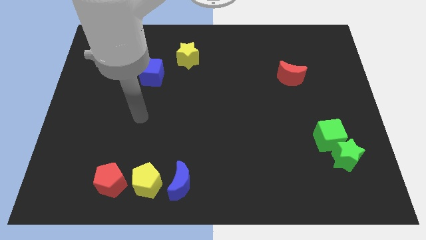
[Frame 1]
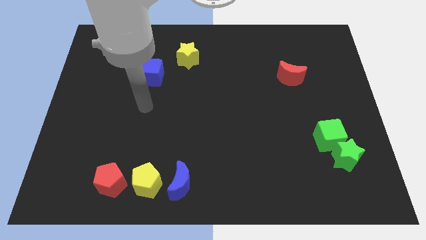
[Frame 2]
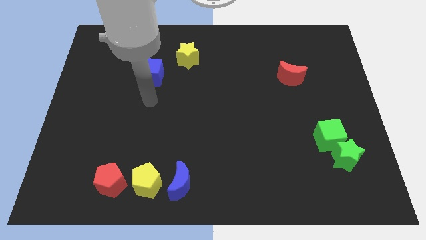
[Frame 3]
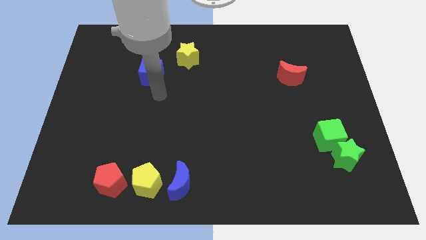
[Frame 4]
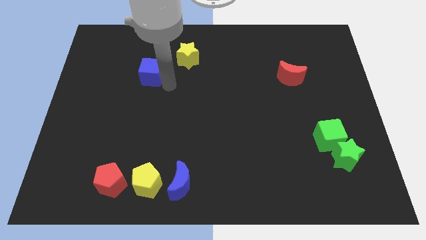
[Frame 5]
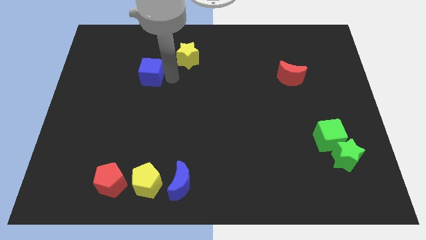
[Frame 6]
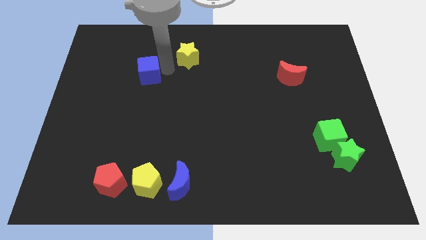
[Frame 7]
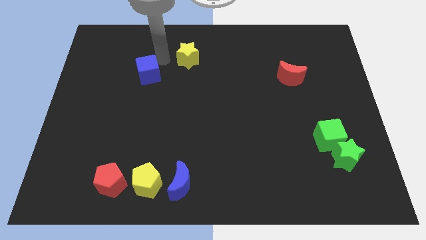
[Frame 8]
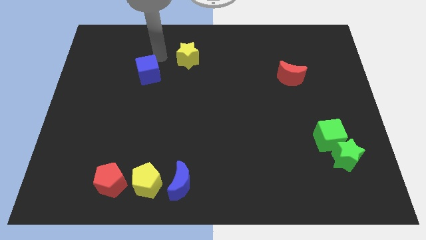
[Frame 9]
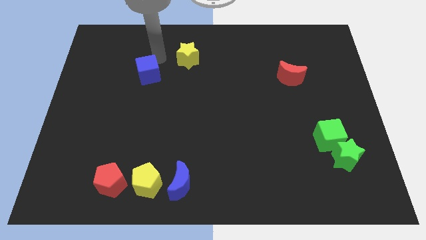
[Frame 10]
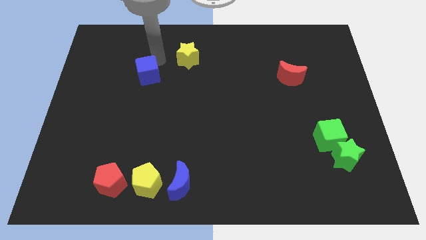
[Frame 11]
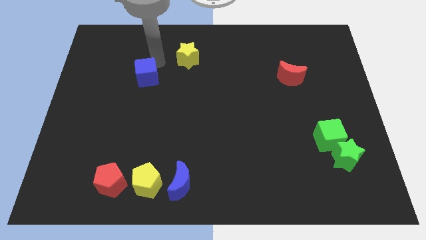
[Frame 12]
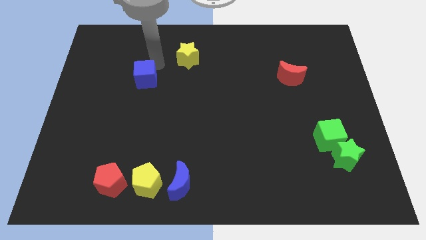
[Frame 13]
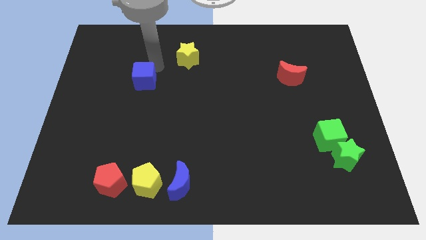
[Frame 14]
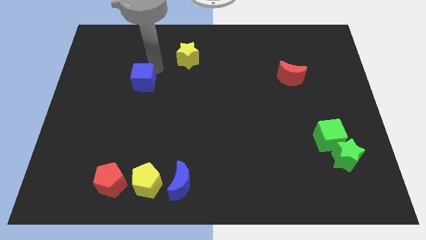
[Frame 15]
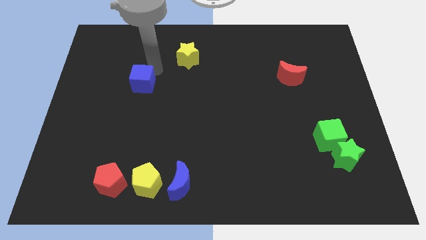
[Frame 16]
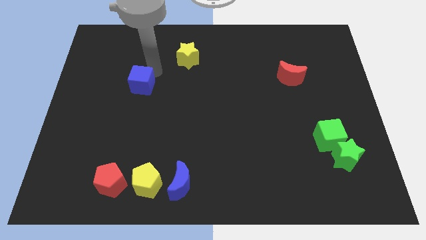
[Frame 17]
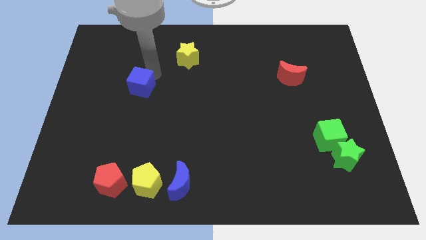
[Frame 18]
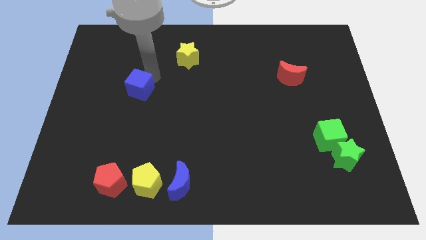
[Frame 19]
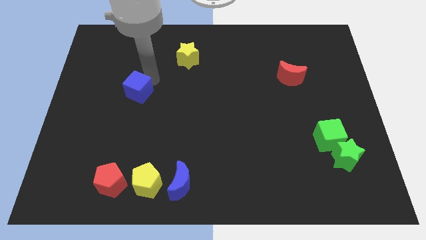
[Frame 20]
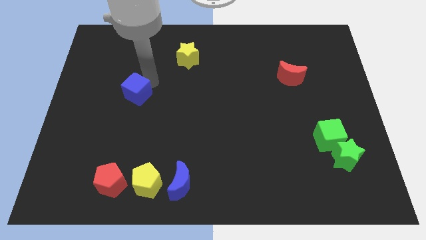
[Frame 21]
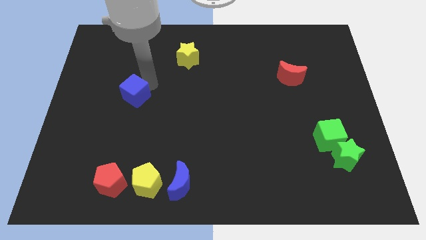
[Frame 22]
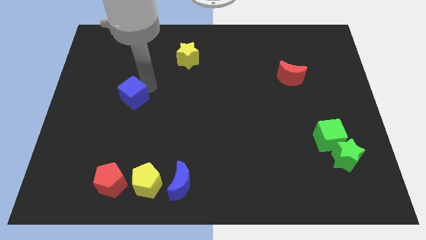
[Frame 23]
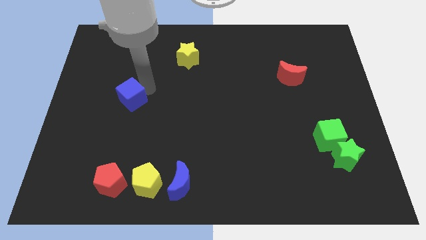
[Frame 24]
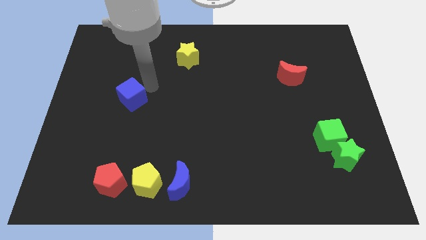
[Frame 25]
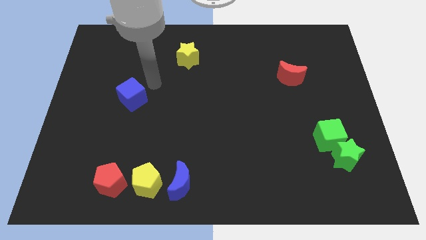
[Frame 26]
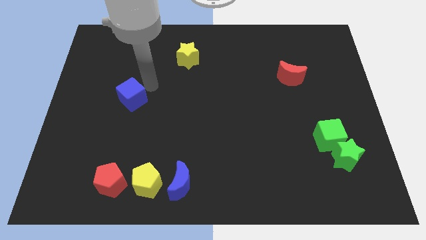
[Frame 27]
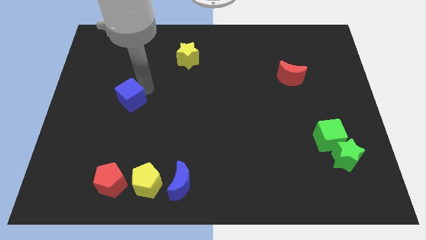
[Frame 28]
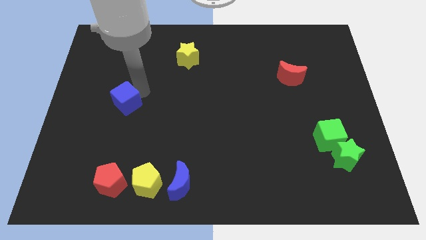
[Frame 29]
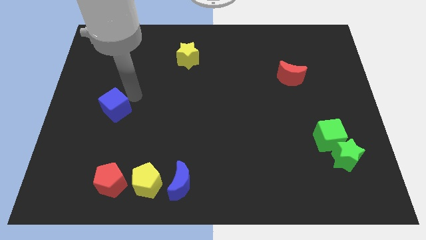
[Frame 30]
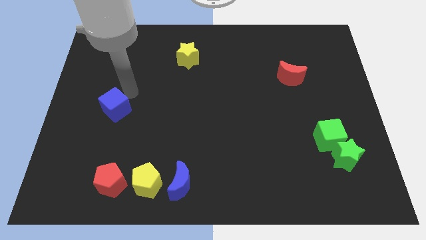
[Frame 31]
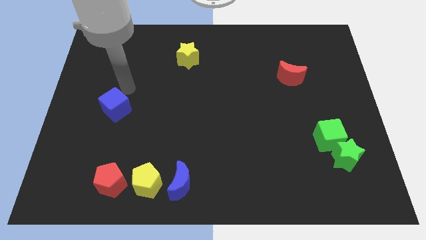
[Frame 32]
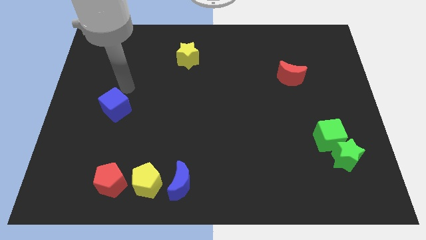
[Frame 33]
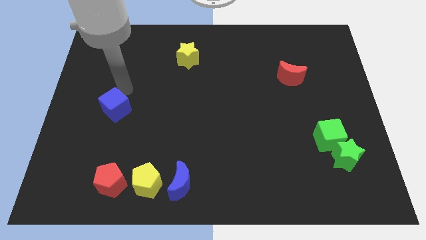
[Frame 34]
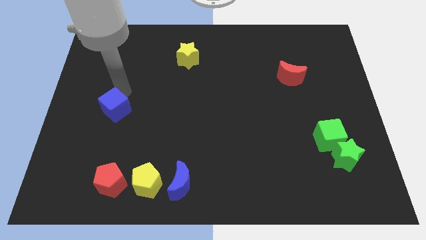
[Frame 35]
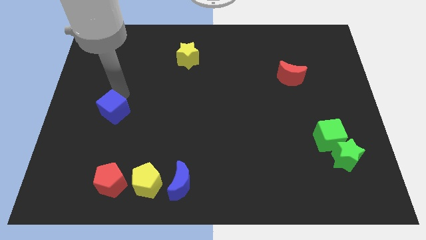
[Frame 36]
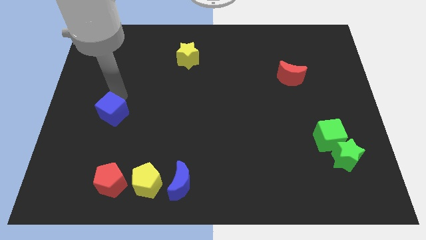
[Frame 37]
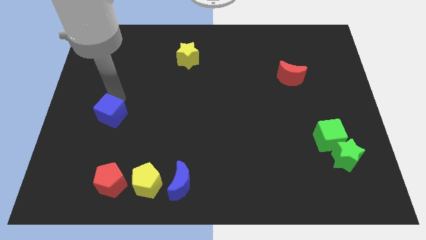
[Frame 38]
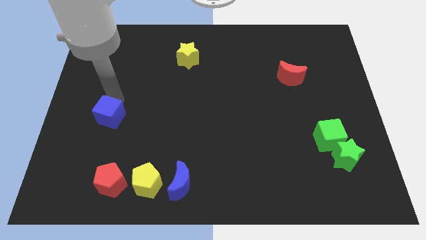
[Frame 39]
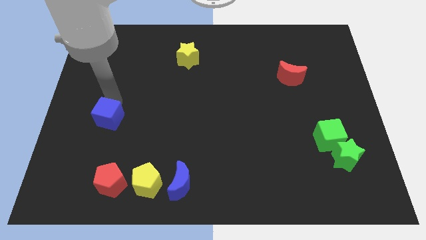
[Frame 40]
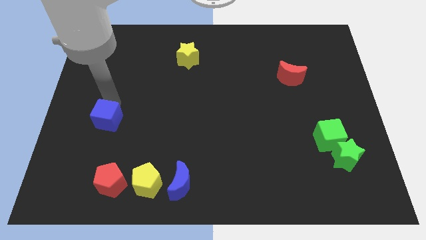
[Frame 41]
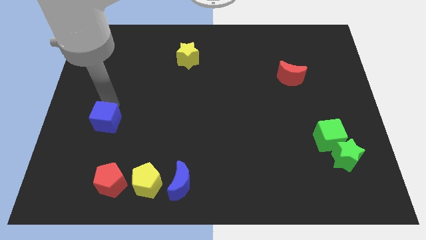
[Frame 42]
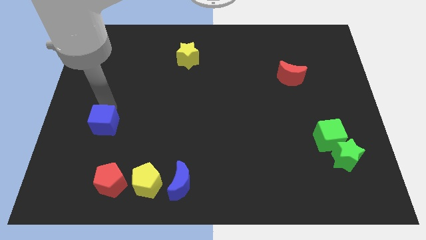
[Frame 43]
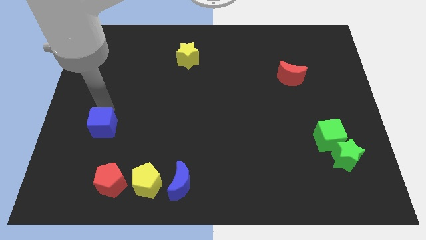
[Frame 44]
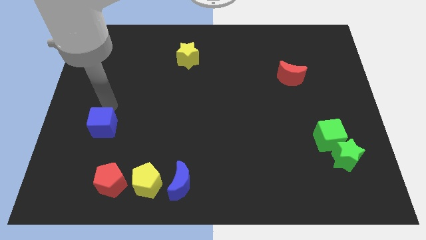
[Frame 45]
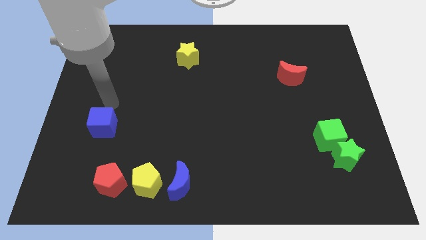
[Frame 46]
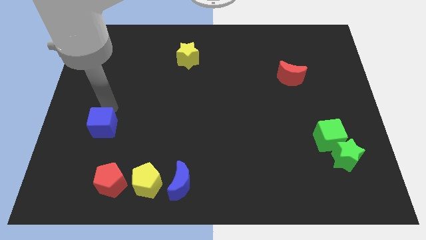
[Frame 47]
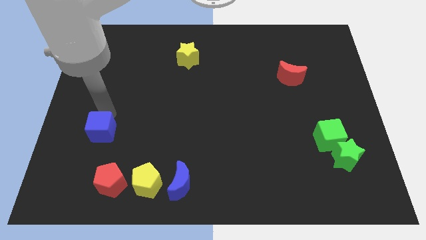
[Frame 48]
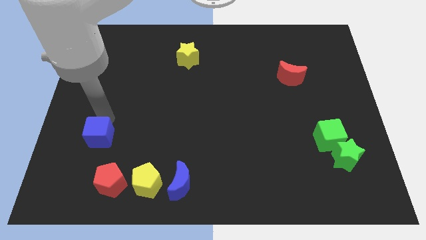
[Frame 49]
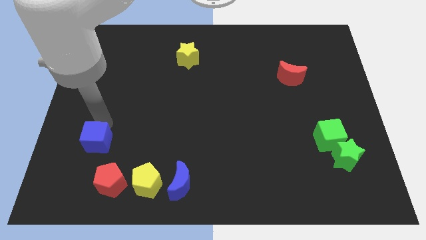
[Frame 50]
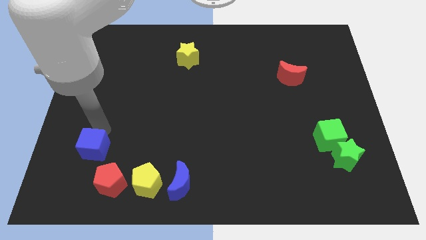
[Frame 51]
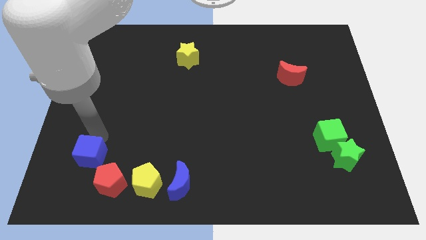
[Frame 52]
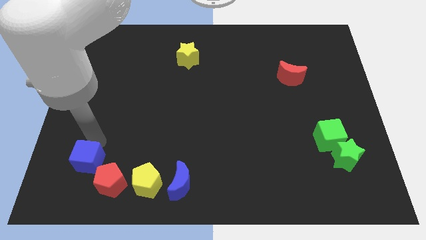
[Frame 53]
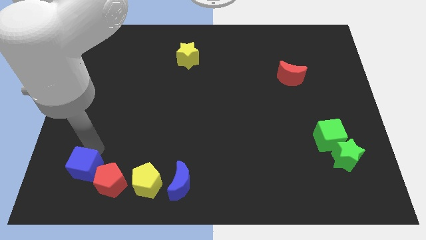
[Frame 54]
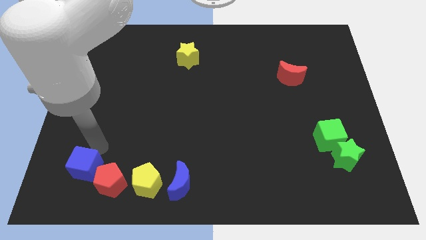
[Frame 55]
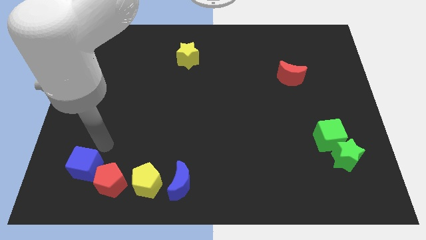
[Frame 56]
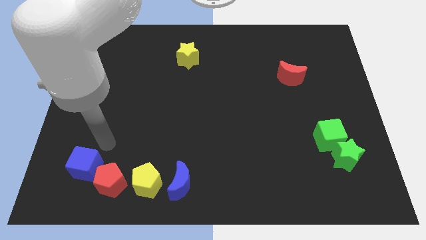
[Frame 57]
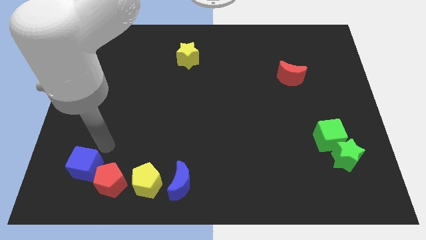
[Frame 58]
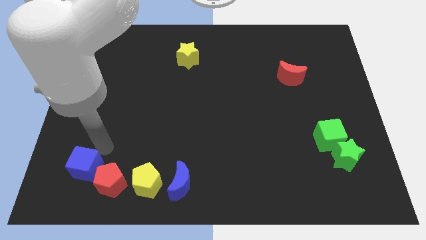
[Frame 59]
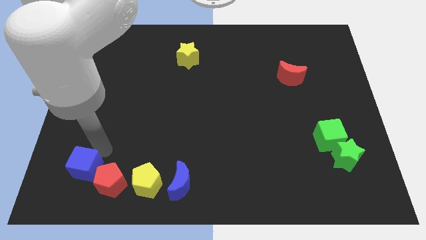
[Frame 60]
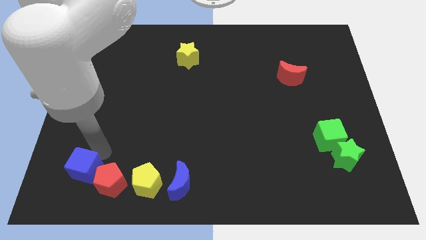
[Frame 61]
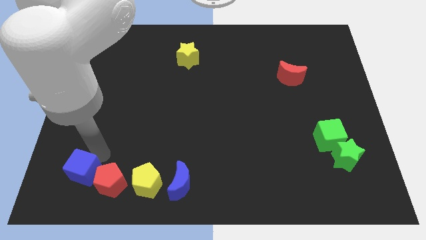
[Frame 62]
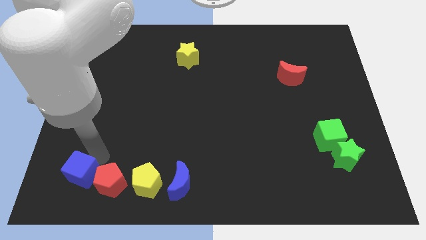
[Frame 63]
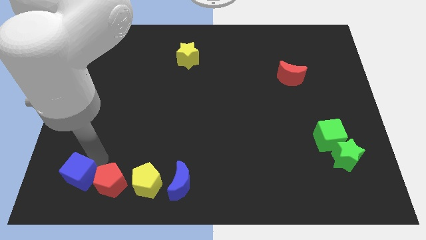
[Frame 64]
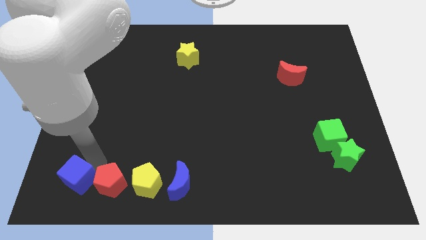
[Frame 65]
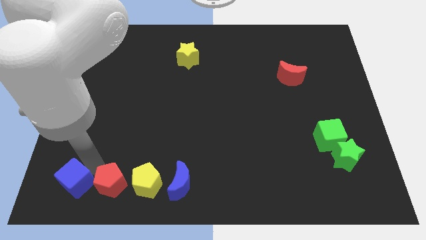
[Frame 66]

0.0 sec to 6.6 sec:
push the blue cube to the bottom left of the board

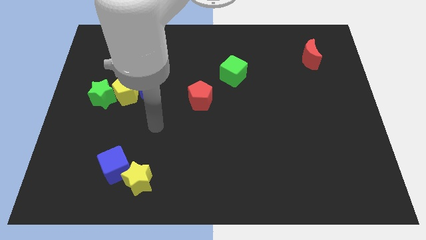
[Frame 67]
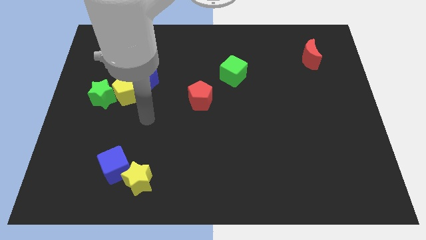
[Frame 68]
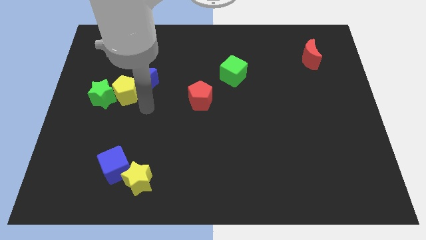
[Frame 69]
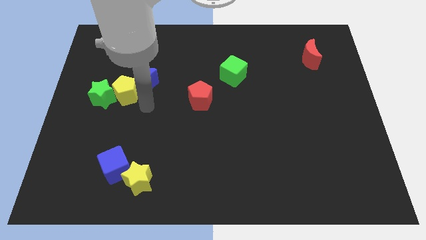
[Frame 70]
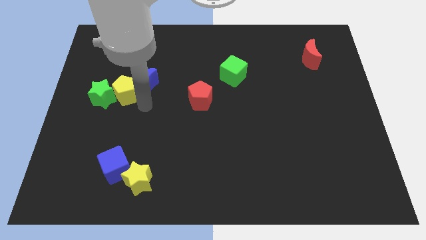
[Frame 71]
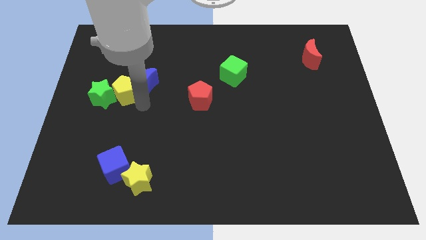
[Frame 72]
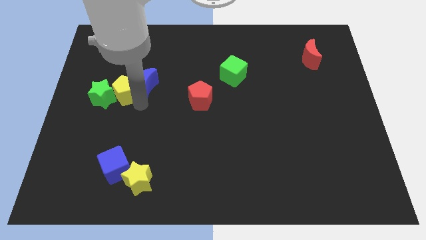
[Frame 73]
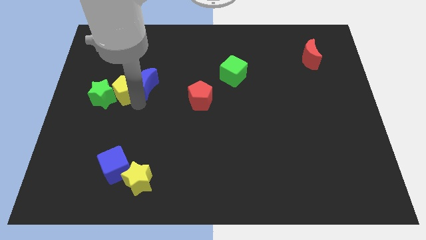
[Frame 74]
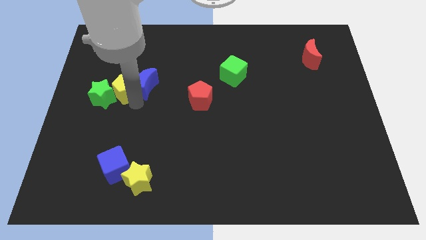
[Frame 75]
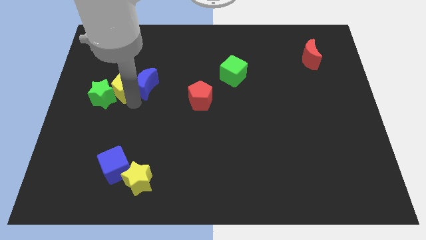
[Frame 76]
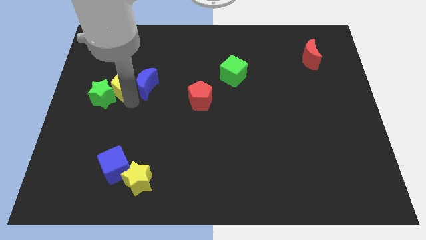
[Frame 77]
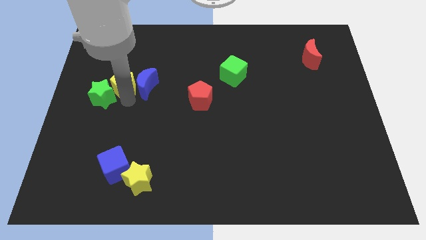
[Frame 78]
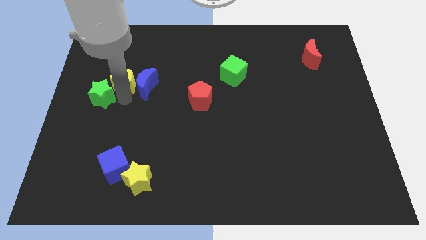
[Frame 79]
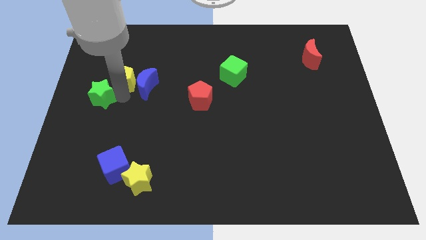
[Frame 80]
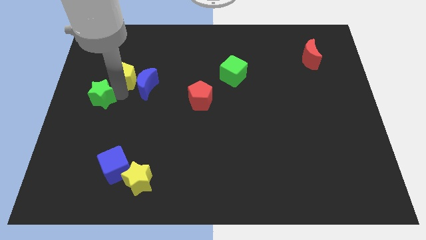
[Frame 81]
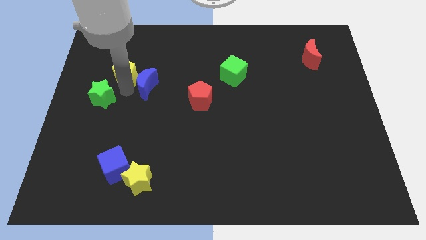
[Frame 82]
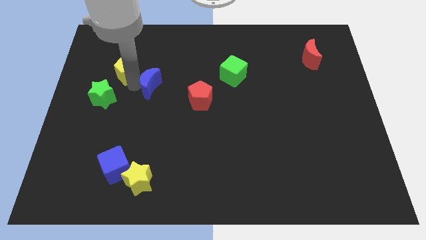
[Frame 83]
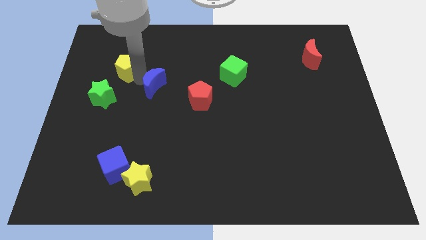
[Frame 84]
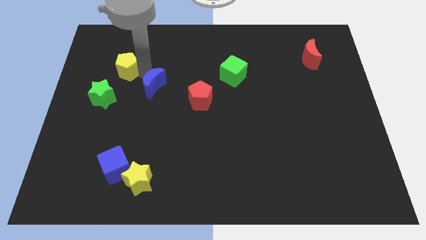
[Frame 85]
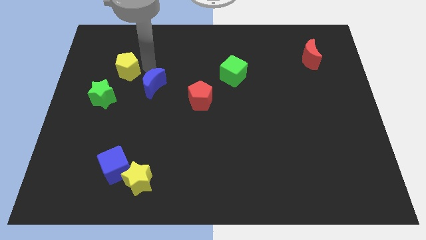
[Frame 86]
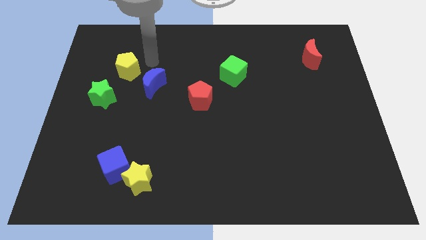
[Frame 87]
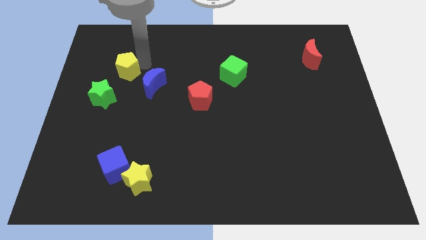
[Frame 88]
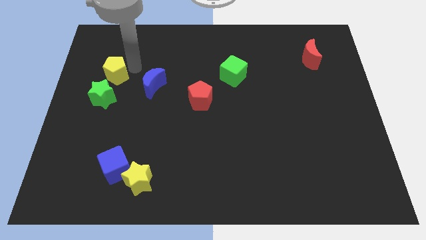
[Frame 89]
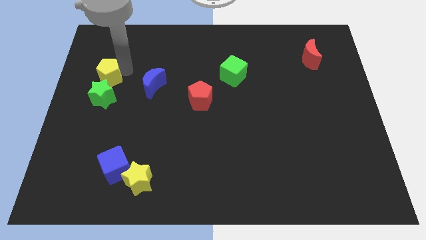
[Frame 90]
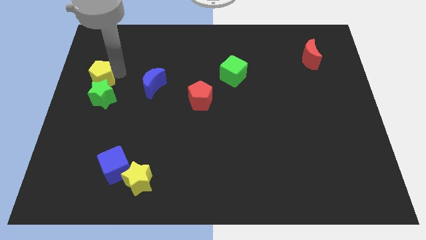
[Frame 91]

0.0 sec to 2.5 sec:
push the yellow pentagon to the center left
